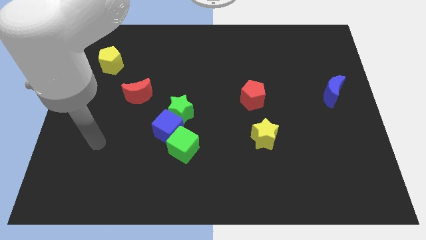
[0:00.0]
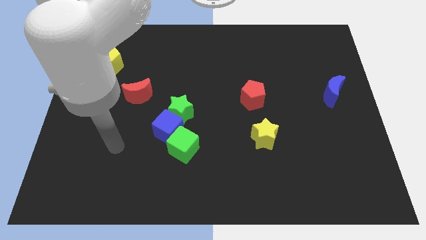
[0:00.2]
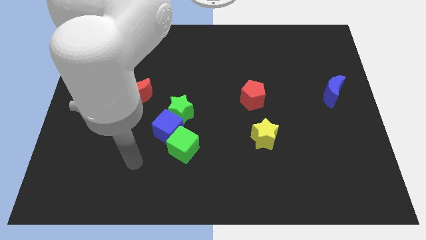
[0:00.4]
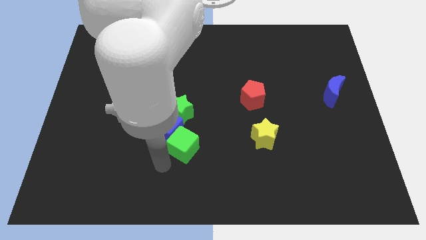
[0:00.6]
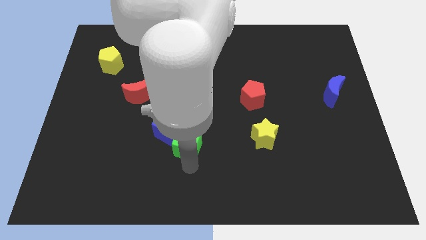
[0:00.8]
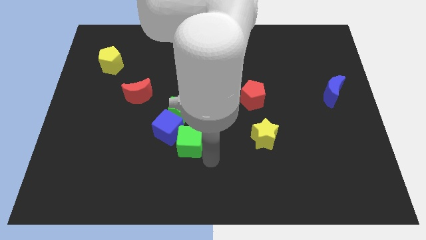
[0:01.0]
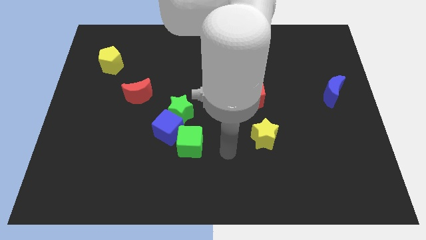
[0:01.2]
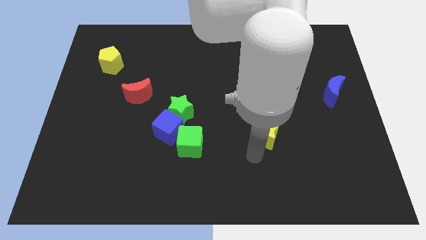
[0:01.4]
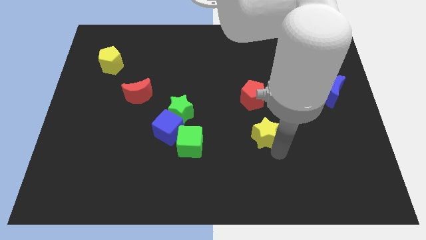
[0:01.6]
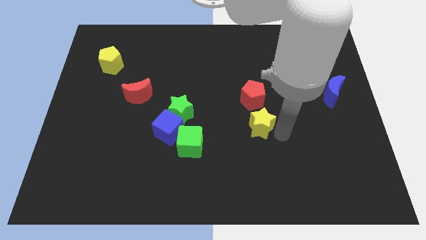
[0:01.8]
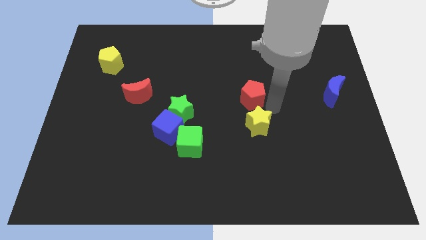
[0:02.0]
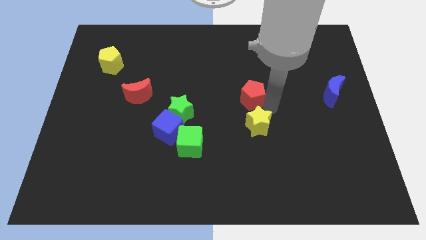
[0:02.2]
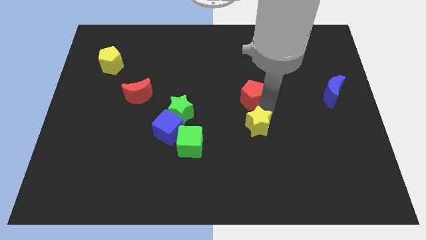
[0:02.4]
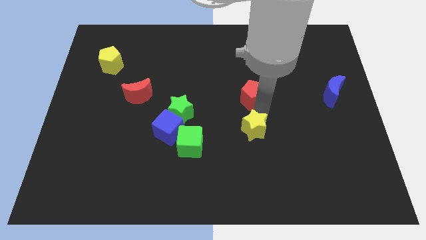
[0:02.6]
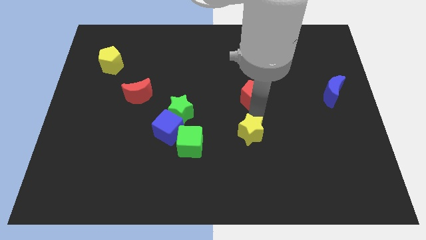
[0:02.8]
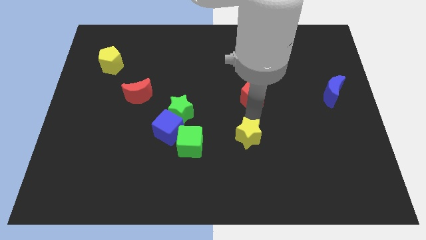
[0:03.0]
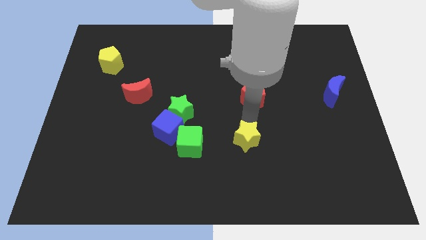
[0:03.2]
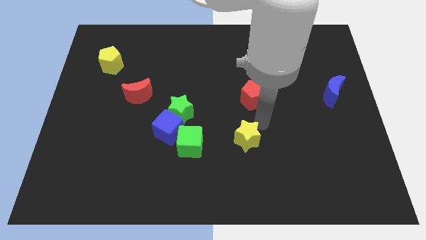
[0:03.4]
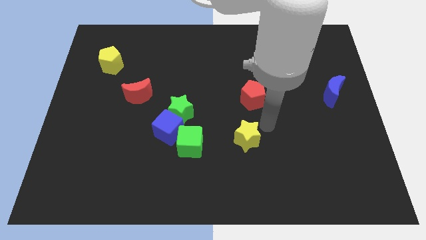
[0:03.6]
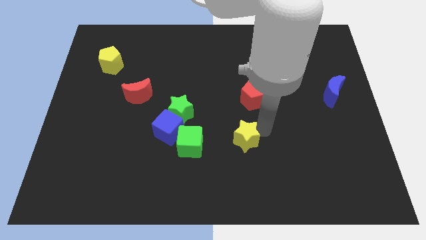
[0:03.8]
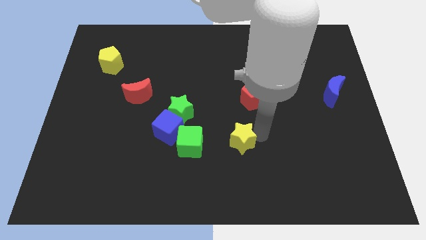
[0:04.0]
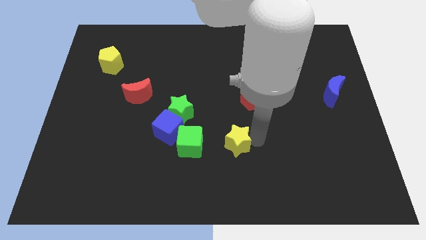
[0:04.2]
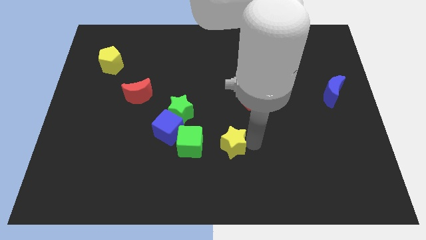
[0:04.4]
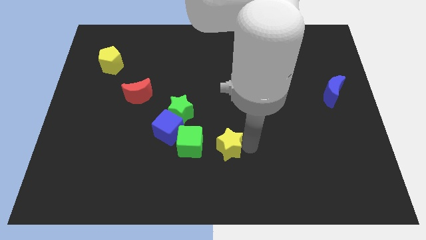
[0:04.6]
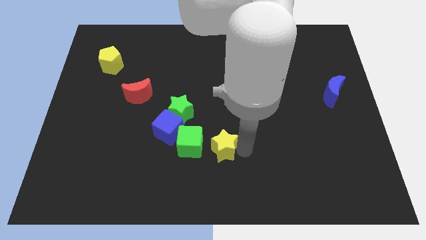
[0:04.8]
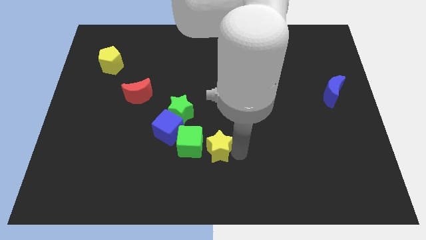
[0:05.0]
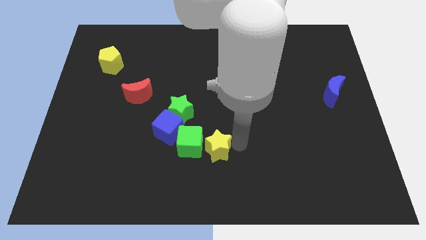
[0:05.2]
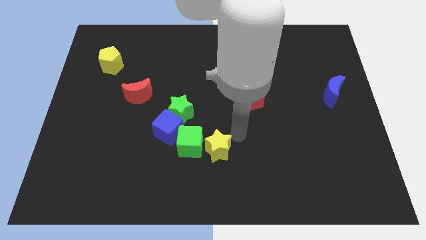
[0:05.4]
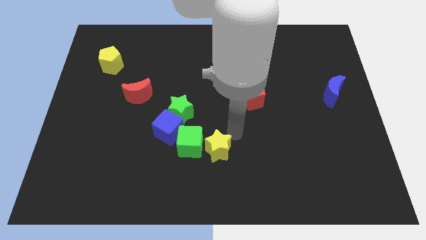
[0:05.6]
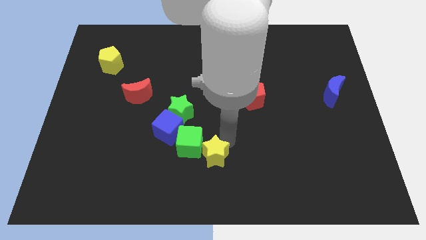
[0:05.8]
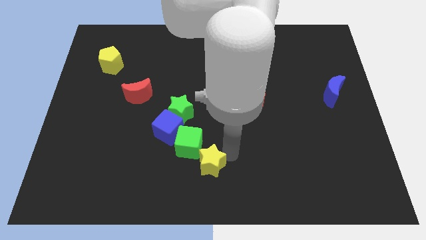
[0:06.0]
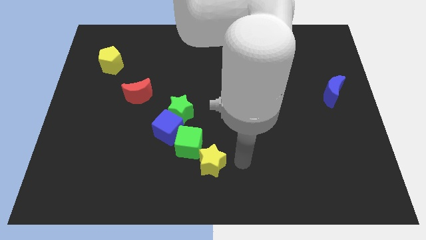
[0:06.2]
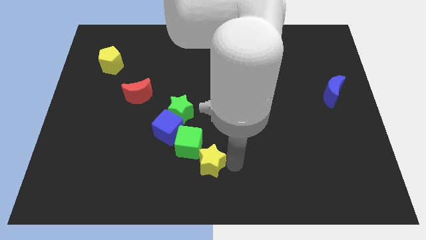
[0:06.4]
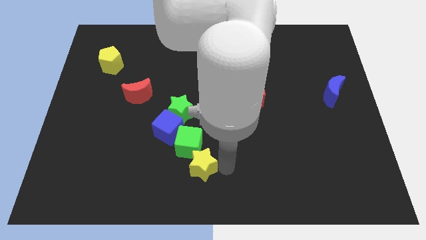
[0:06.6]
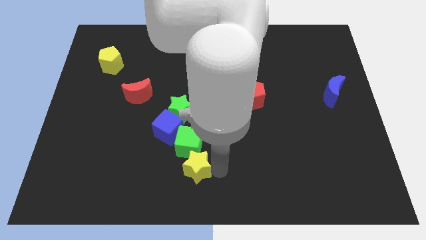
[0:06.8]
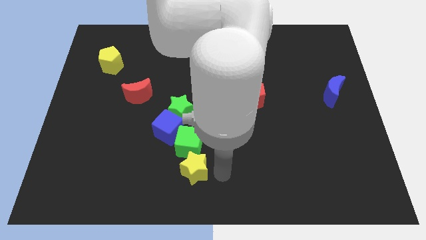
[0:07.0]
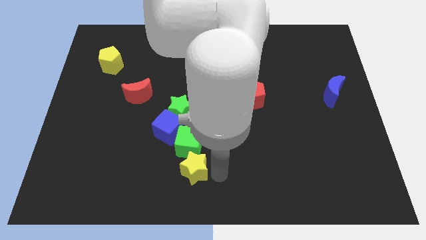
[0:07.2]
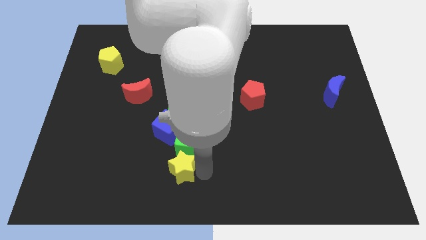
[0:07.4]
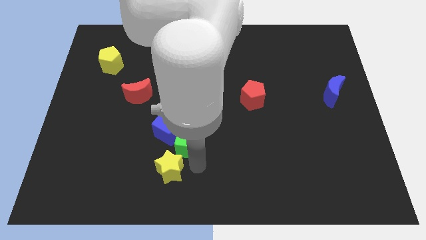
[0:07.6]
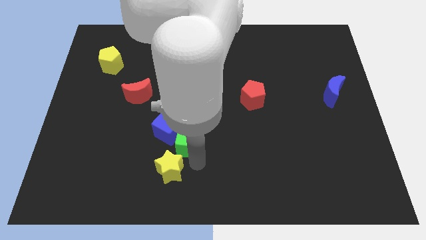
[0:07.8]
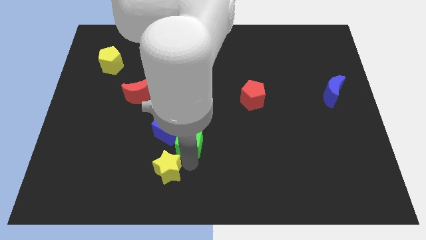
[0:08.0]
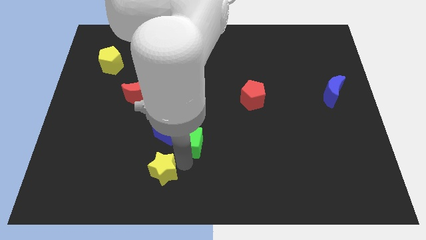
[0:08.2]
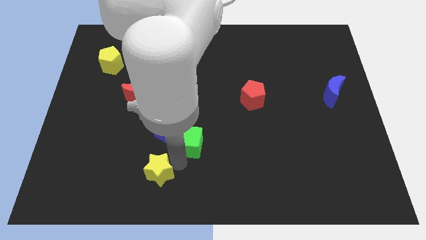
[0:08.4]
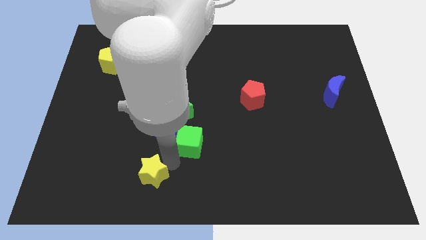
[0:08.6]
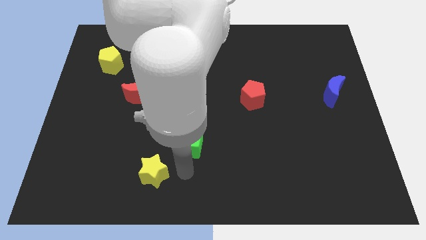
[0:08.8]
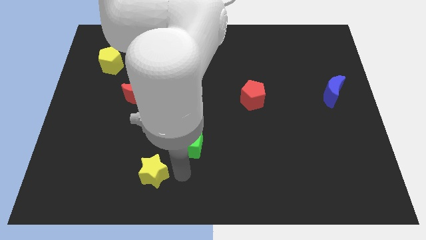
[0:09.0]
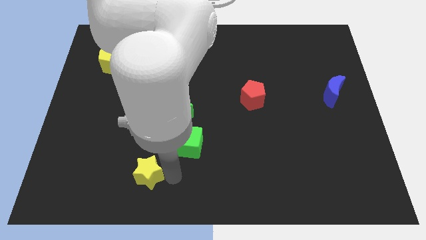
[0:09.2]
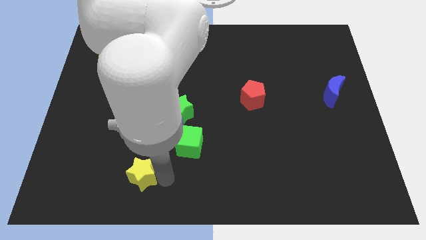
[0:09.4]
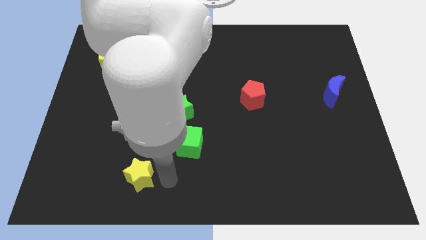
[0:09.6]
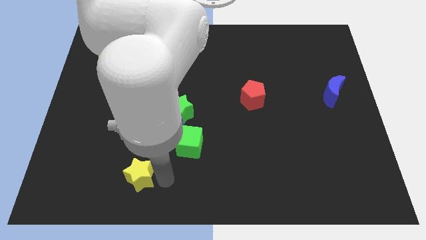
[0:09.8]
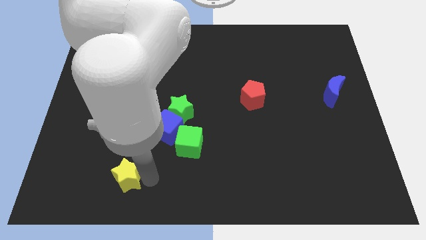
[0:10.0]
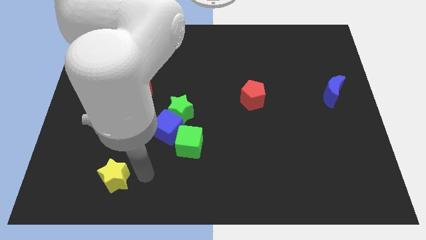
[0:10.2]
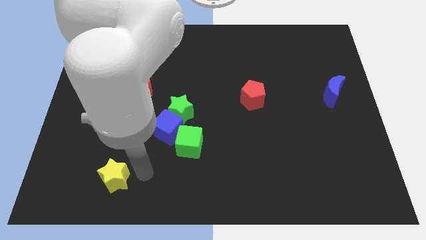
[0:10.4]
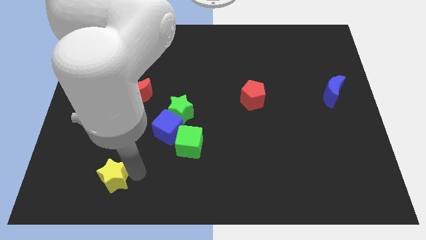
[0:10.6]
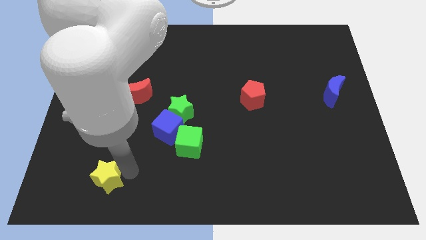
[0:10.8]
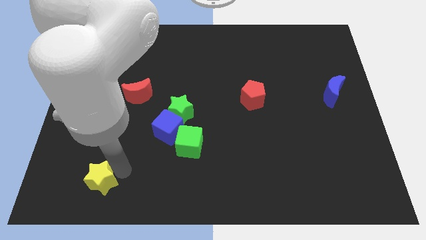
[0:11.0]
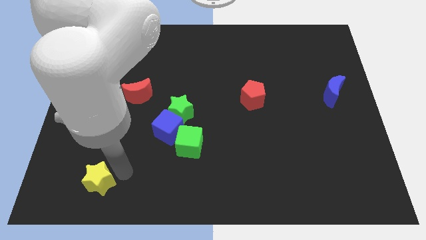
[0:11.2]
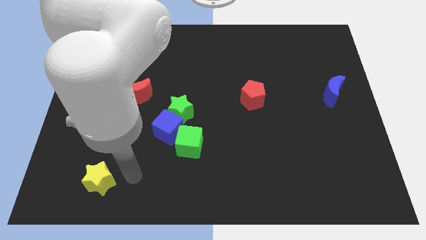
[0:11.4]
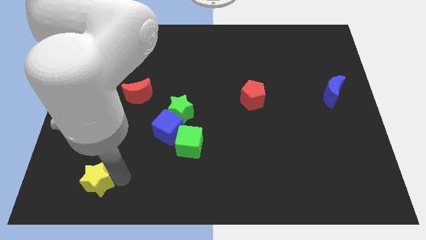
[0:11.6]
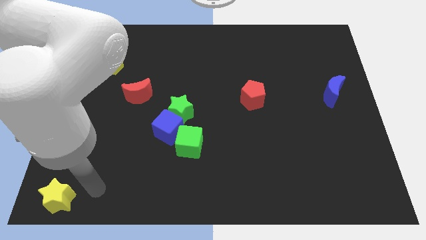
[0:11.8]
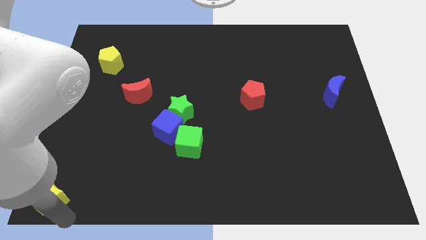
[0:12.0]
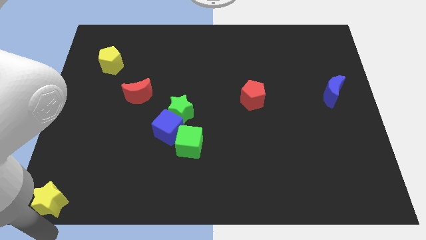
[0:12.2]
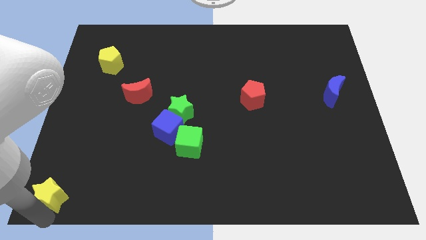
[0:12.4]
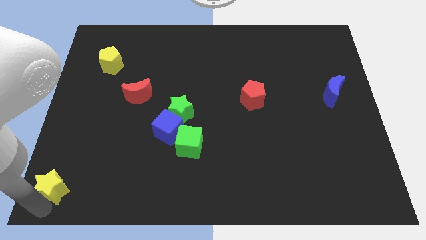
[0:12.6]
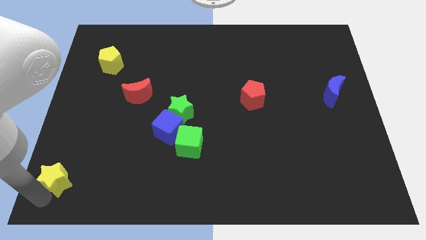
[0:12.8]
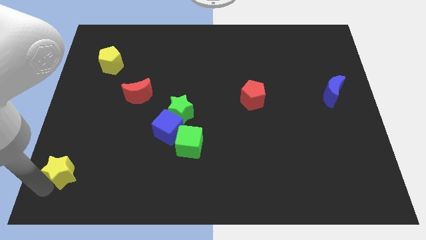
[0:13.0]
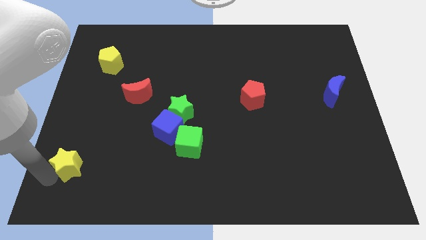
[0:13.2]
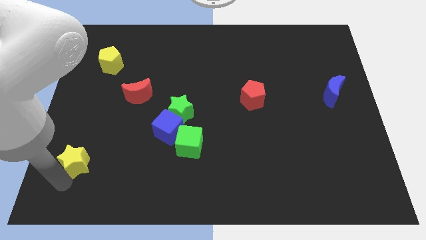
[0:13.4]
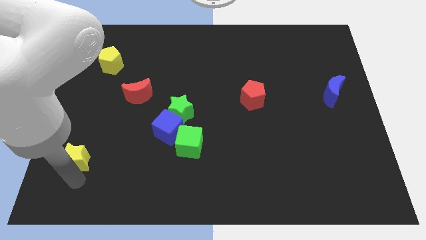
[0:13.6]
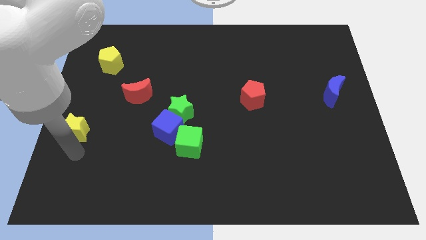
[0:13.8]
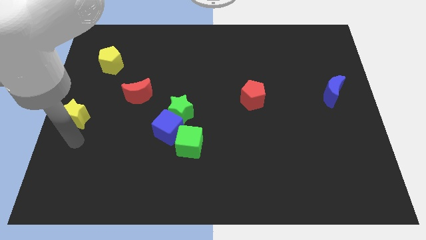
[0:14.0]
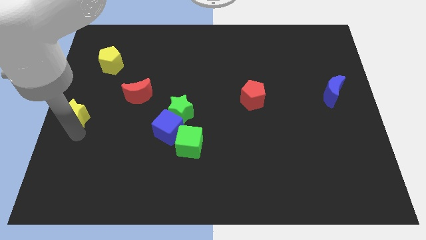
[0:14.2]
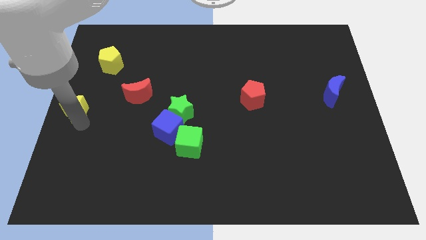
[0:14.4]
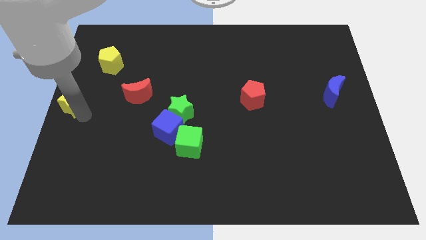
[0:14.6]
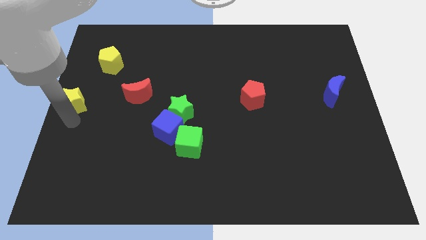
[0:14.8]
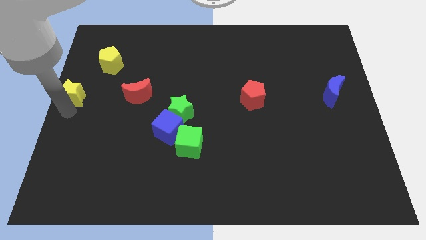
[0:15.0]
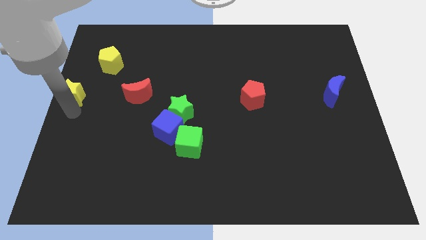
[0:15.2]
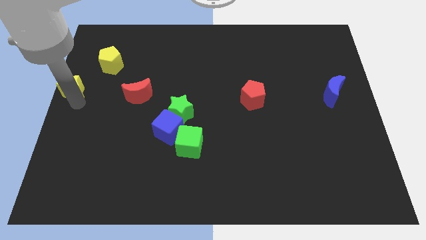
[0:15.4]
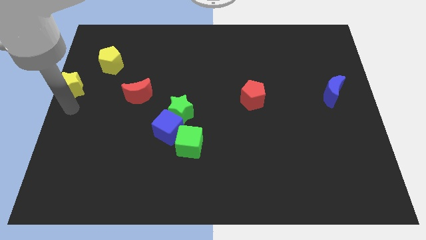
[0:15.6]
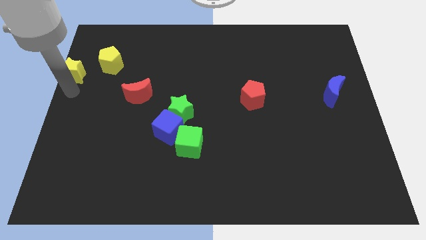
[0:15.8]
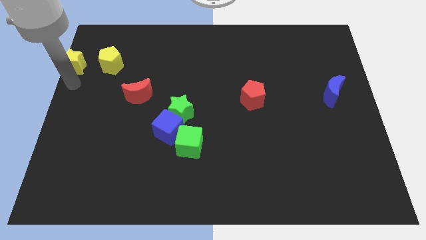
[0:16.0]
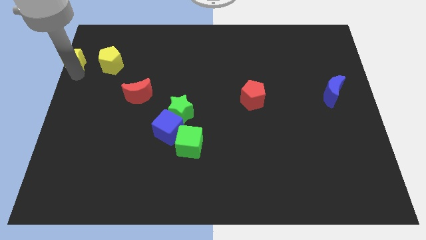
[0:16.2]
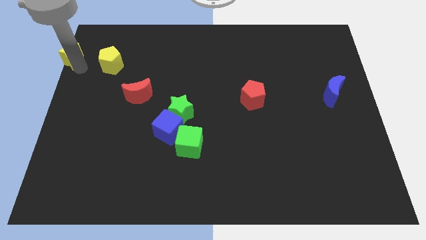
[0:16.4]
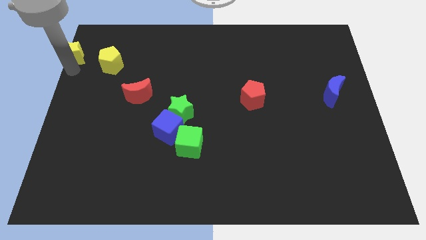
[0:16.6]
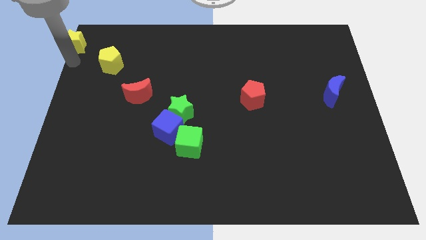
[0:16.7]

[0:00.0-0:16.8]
put the yellow star to the upper left corner
